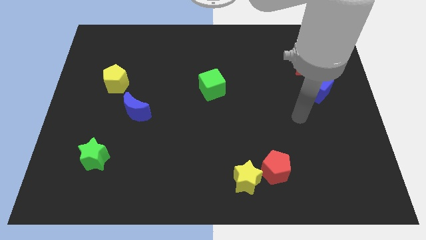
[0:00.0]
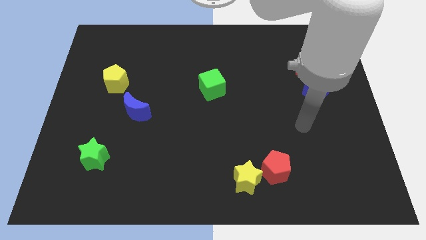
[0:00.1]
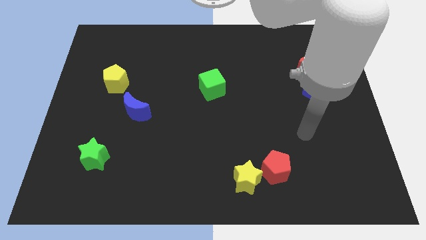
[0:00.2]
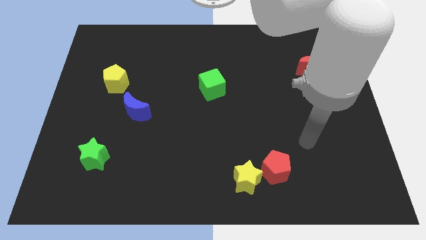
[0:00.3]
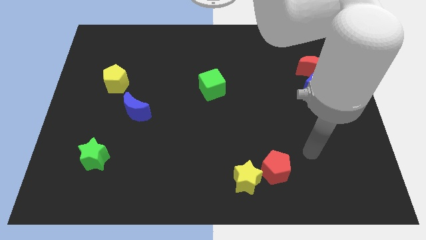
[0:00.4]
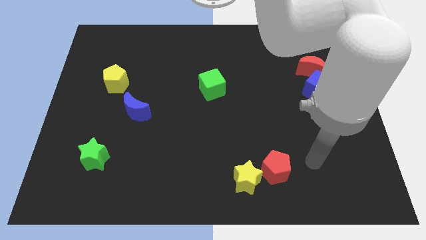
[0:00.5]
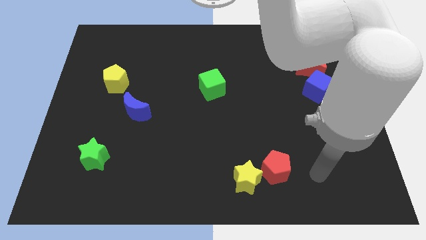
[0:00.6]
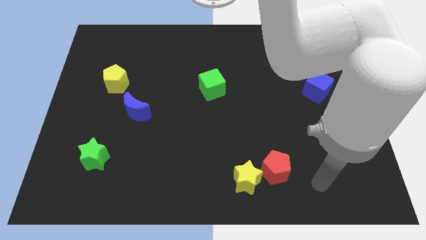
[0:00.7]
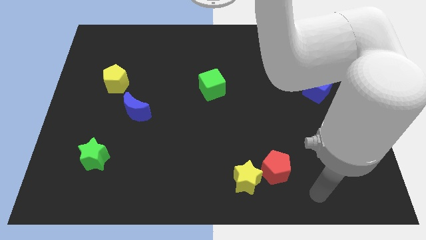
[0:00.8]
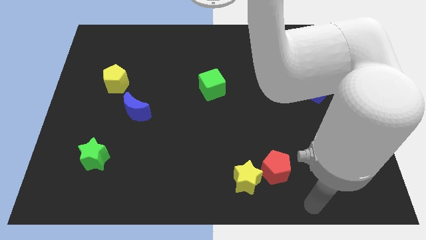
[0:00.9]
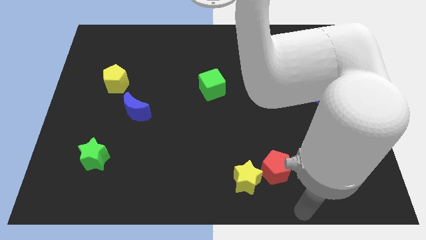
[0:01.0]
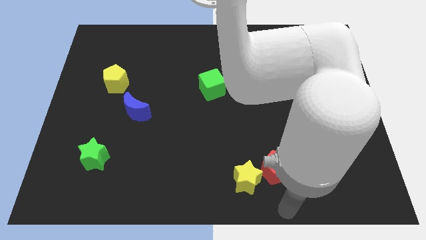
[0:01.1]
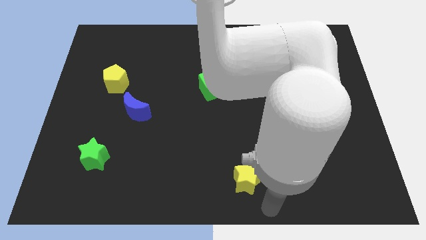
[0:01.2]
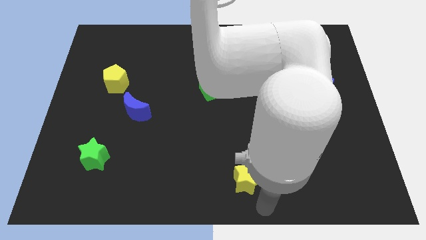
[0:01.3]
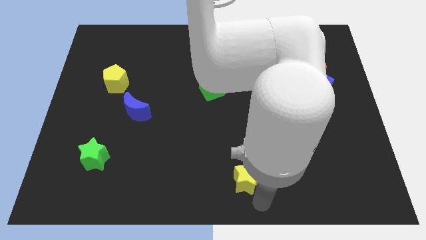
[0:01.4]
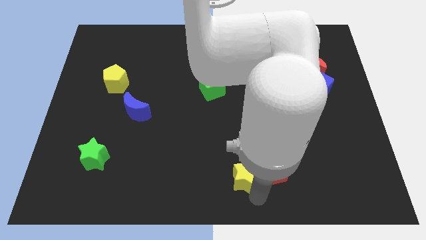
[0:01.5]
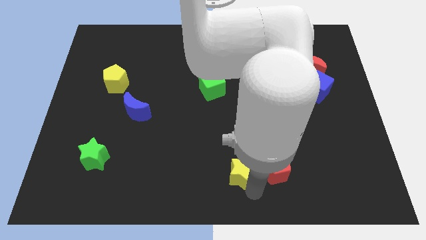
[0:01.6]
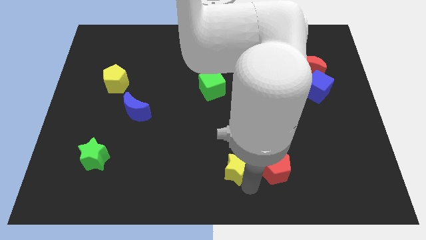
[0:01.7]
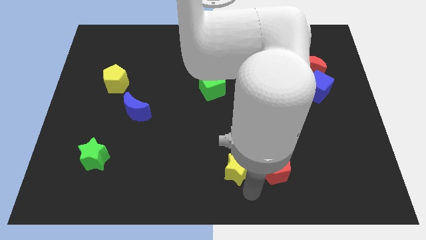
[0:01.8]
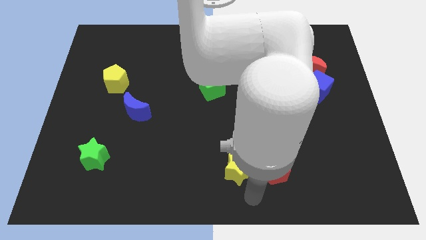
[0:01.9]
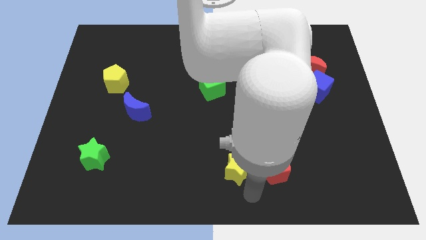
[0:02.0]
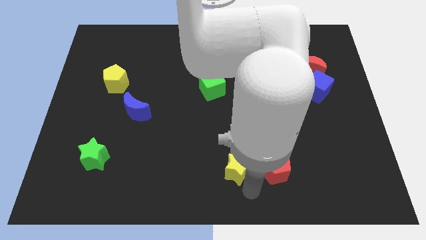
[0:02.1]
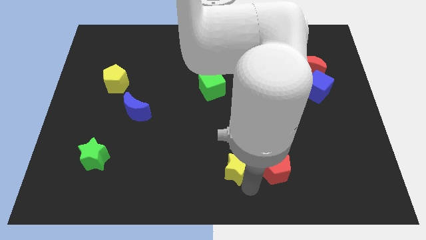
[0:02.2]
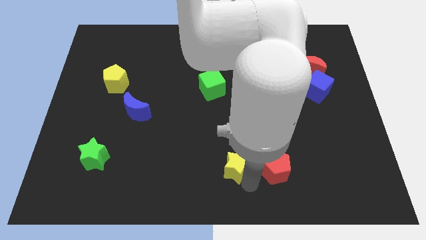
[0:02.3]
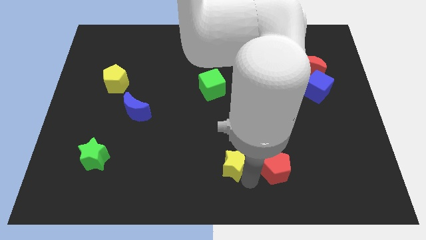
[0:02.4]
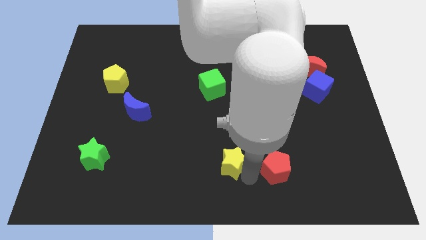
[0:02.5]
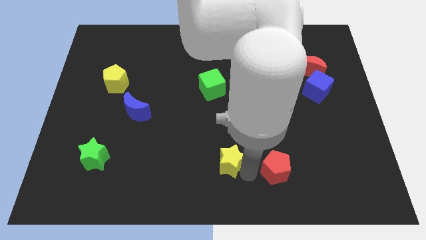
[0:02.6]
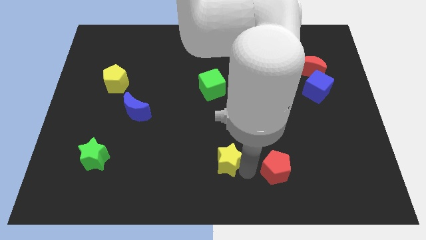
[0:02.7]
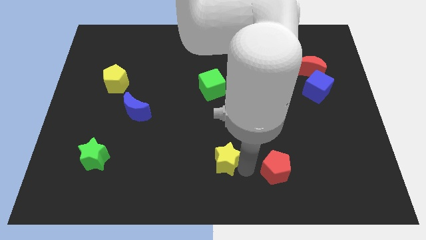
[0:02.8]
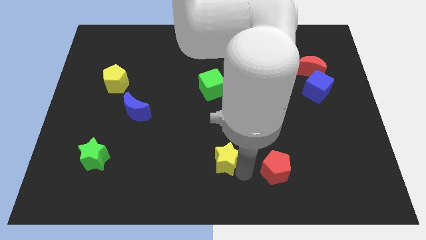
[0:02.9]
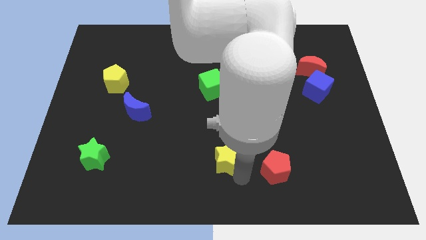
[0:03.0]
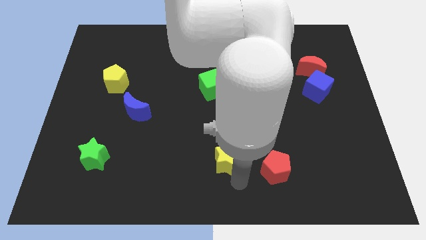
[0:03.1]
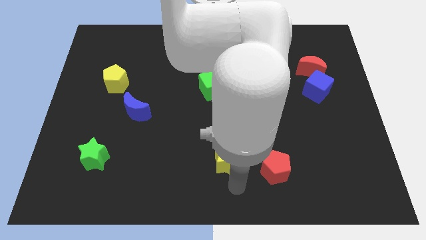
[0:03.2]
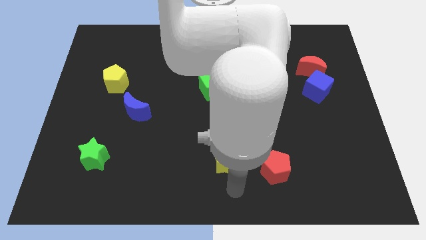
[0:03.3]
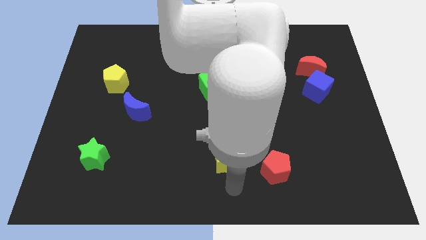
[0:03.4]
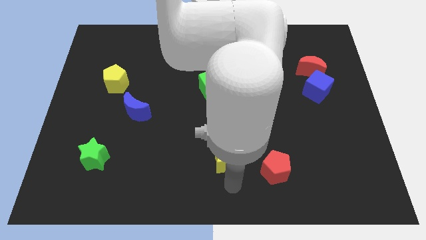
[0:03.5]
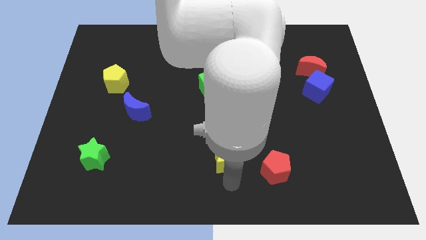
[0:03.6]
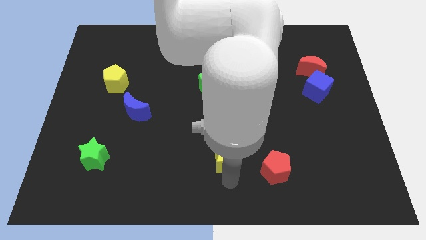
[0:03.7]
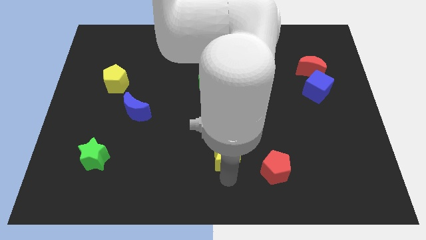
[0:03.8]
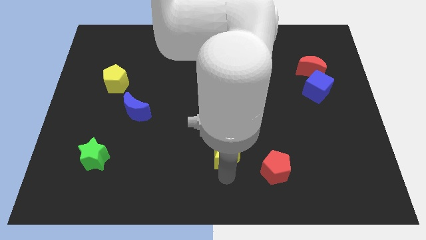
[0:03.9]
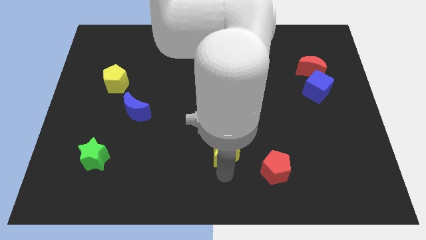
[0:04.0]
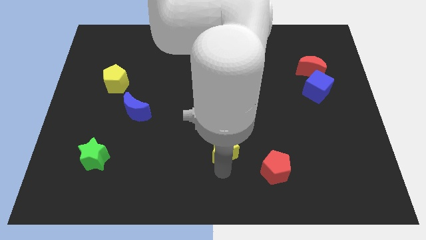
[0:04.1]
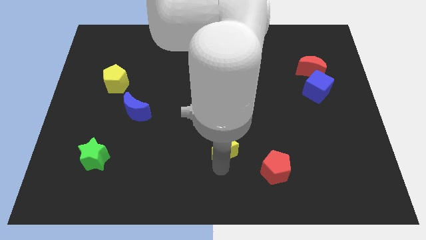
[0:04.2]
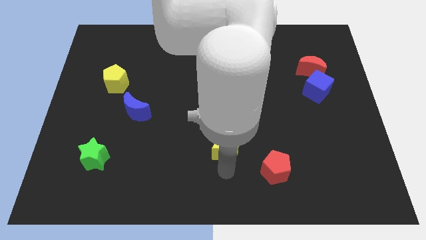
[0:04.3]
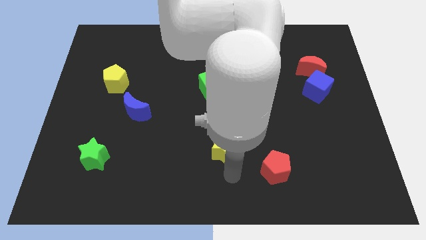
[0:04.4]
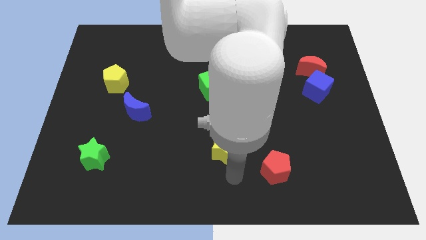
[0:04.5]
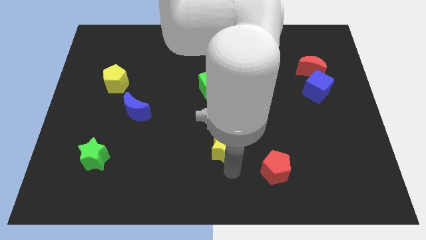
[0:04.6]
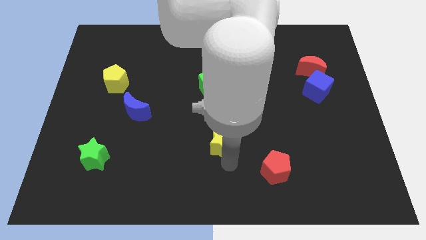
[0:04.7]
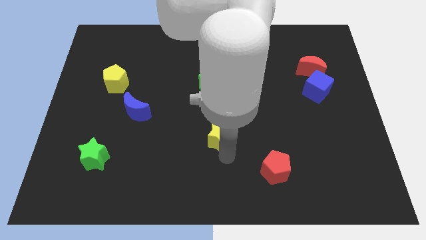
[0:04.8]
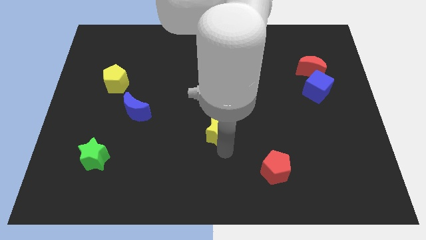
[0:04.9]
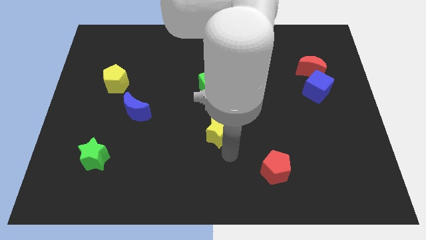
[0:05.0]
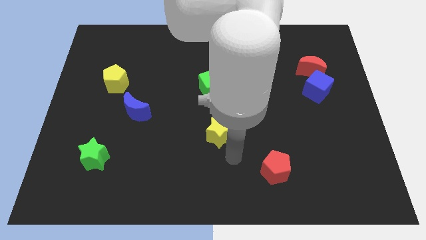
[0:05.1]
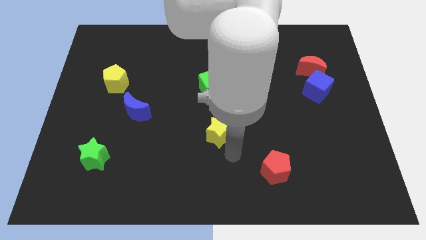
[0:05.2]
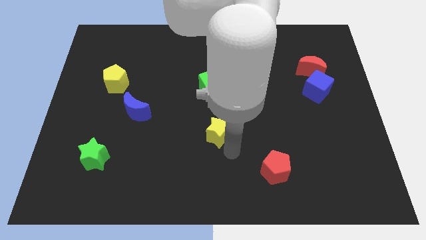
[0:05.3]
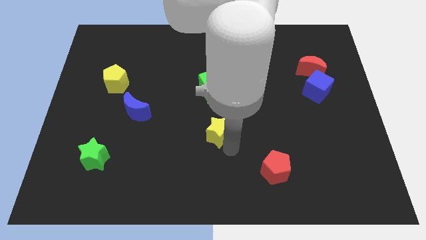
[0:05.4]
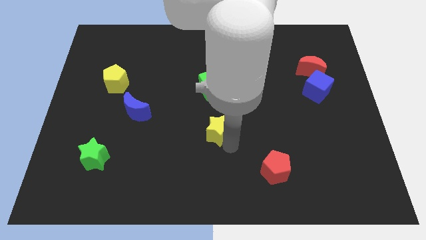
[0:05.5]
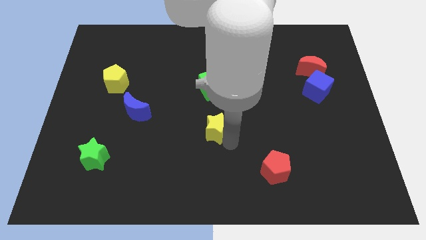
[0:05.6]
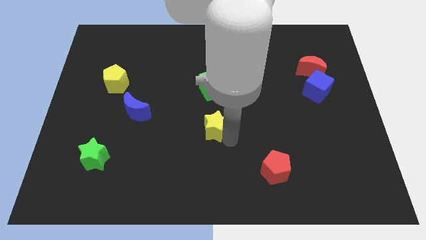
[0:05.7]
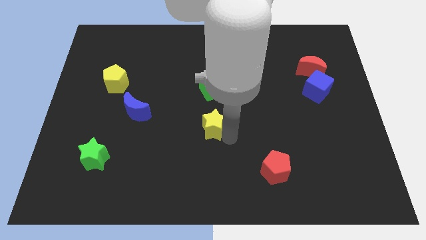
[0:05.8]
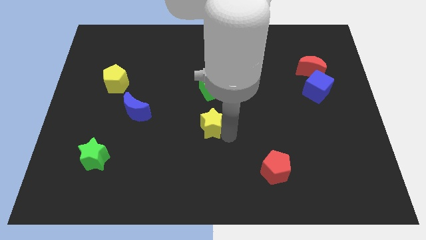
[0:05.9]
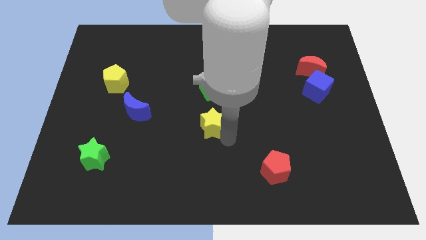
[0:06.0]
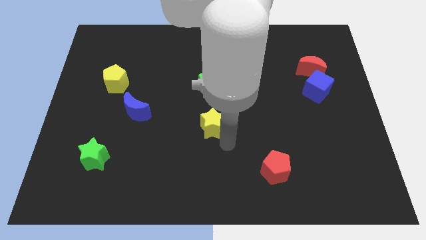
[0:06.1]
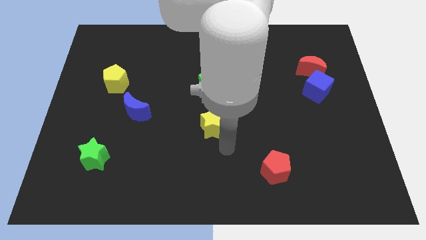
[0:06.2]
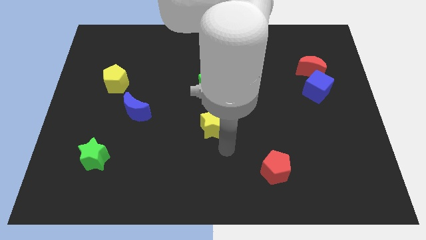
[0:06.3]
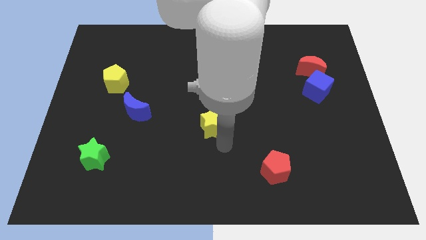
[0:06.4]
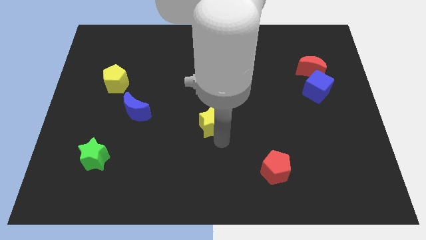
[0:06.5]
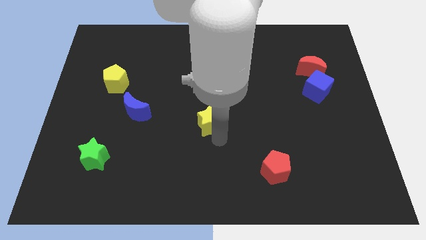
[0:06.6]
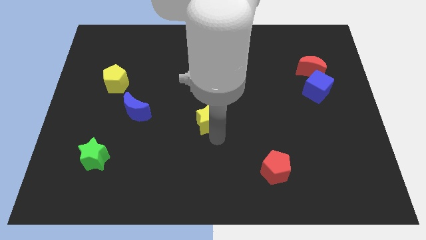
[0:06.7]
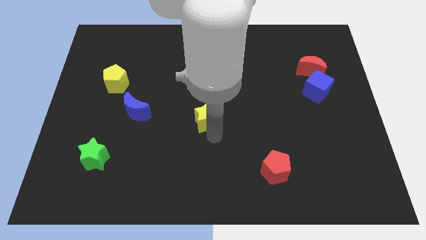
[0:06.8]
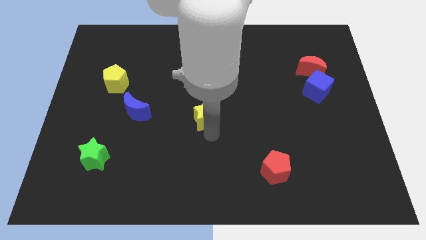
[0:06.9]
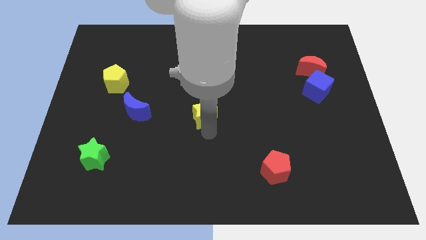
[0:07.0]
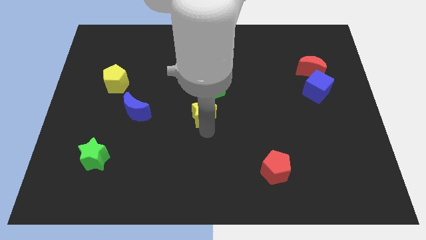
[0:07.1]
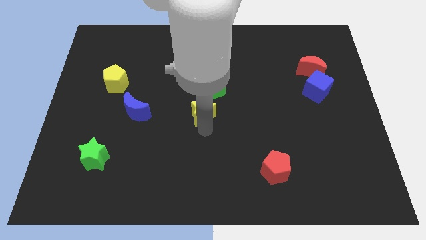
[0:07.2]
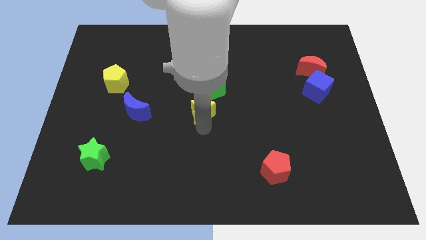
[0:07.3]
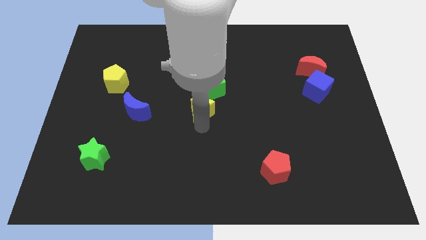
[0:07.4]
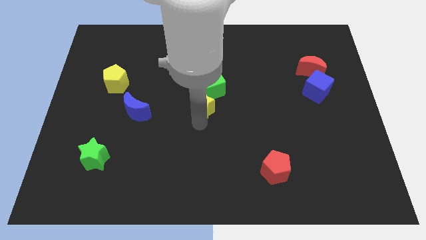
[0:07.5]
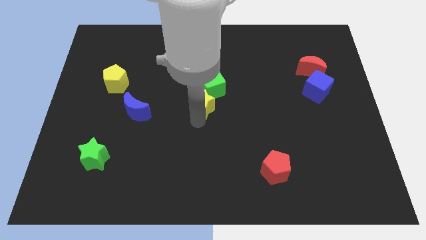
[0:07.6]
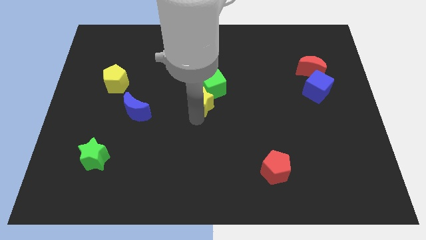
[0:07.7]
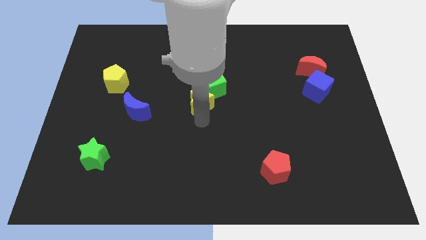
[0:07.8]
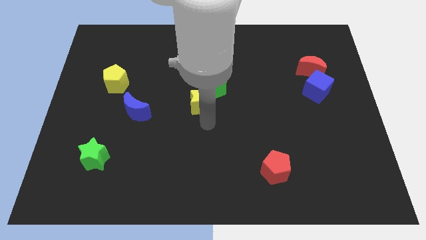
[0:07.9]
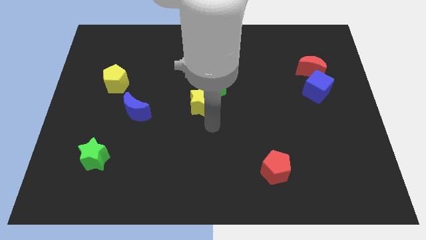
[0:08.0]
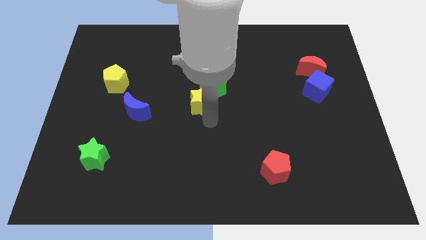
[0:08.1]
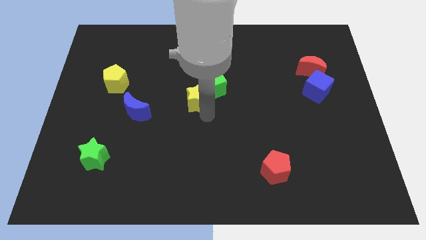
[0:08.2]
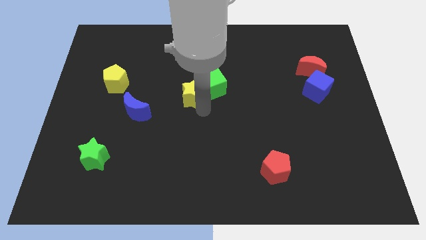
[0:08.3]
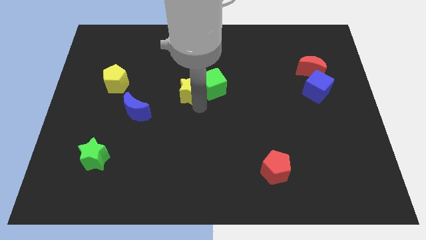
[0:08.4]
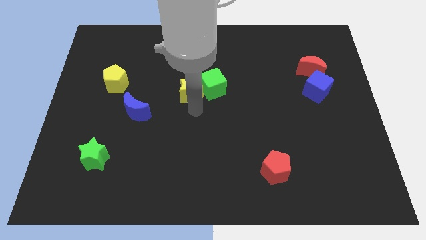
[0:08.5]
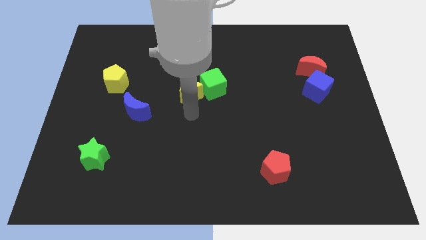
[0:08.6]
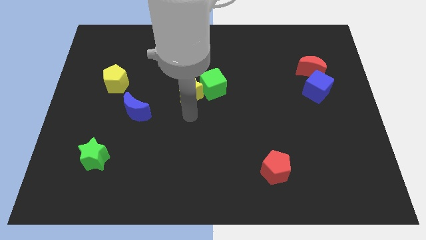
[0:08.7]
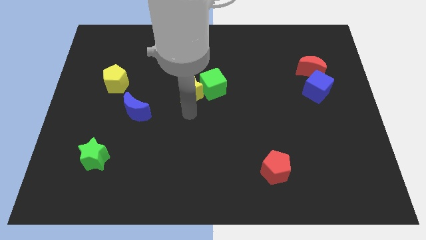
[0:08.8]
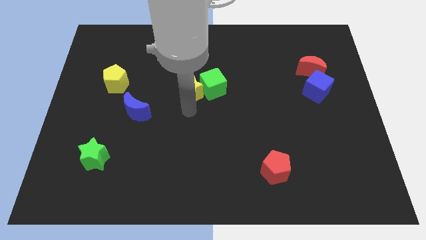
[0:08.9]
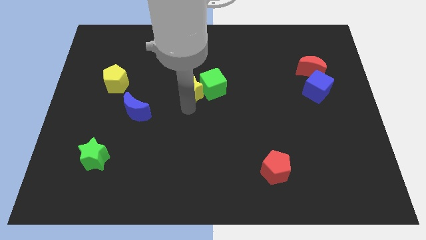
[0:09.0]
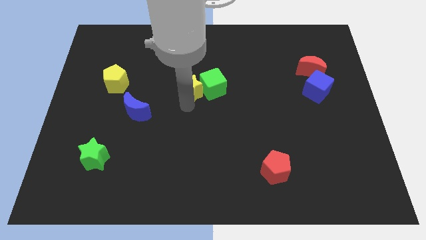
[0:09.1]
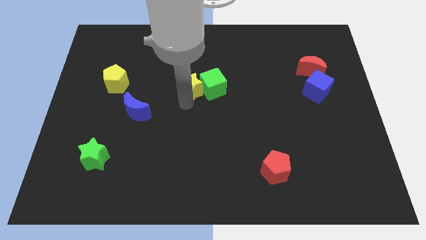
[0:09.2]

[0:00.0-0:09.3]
slide the yellow star to the top left of the green cube
